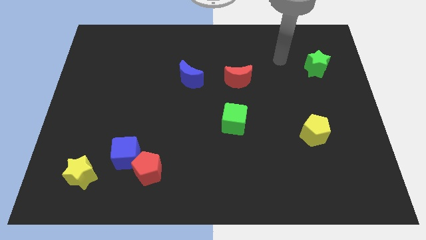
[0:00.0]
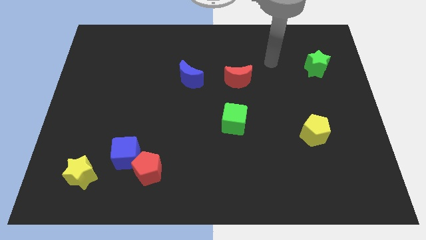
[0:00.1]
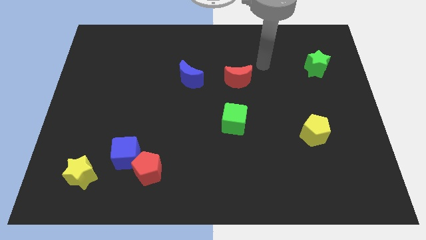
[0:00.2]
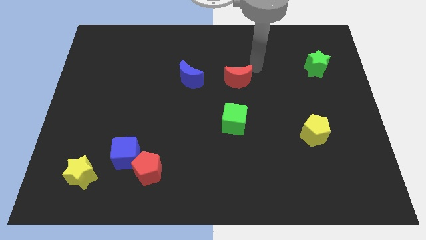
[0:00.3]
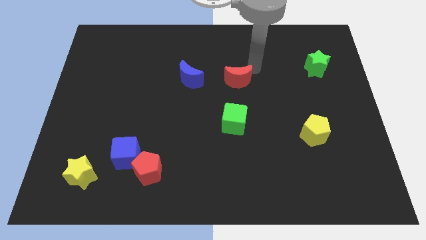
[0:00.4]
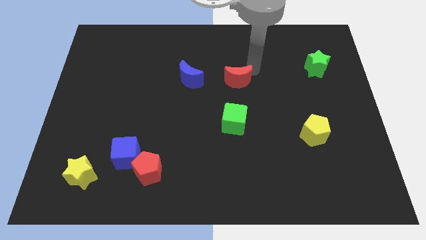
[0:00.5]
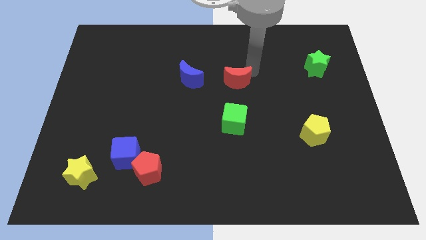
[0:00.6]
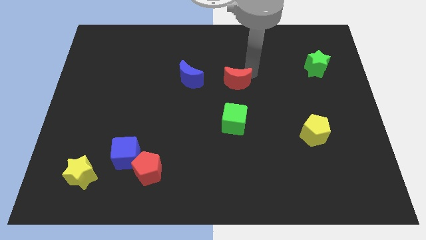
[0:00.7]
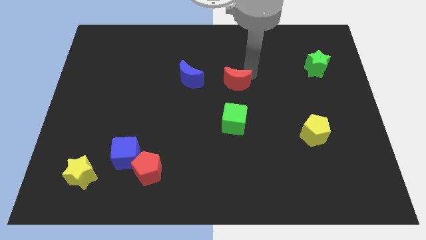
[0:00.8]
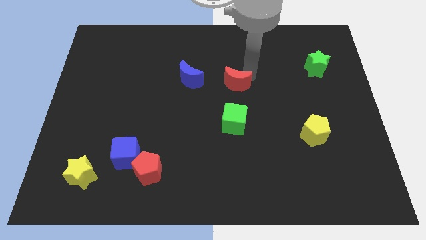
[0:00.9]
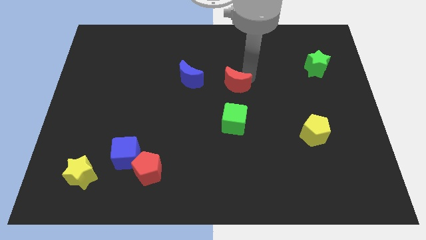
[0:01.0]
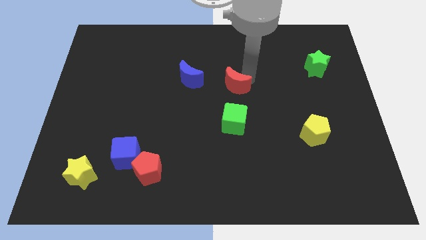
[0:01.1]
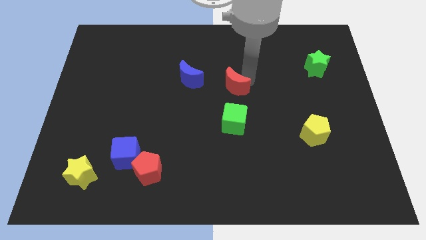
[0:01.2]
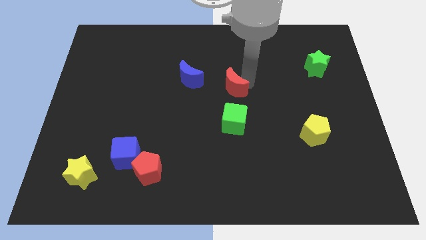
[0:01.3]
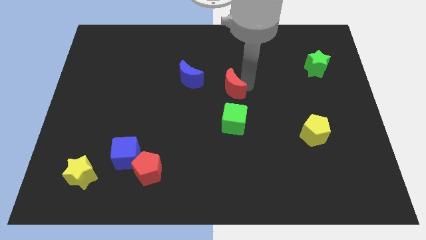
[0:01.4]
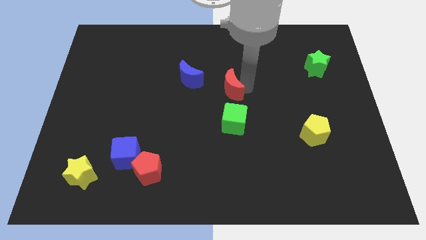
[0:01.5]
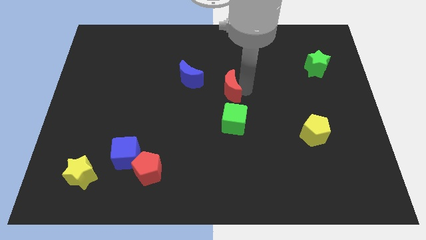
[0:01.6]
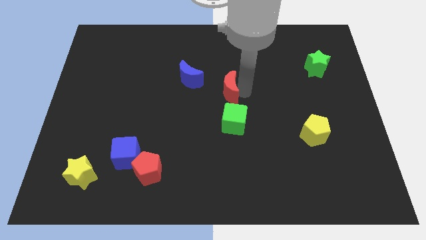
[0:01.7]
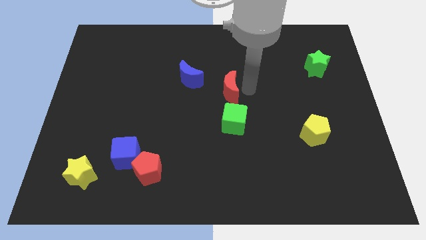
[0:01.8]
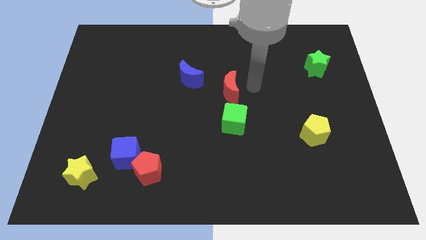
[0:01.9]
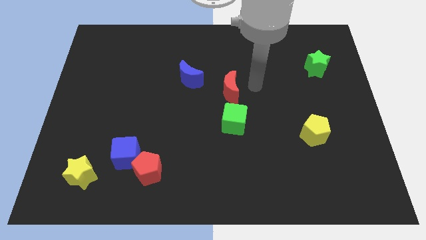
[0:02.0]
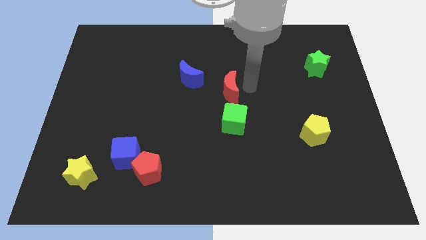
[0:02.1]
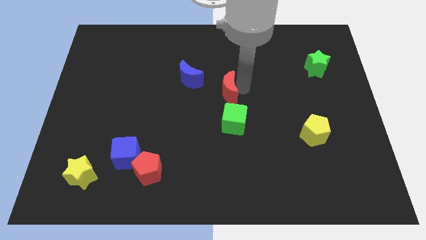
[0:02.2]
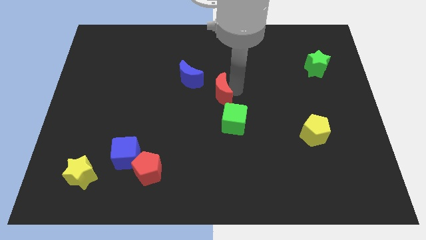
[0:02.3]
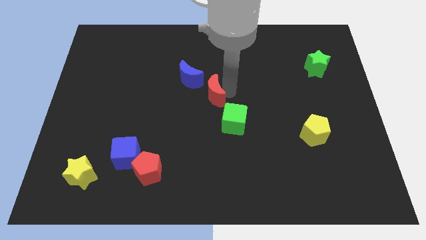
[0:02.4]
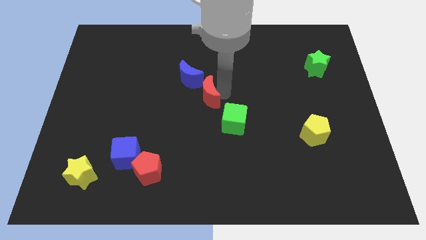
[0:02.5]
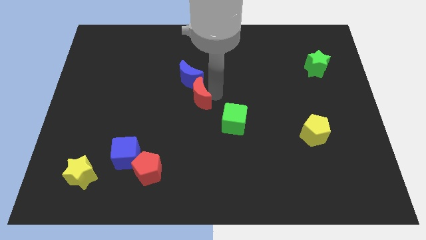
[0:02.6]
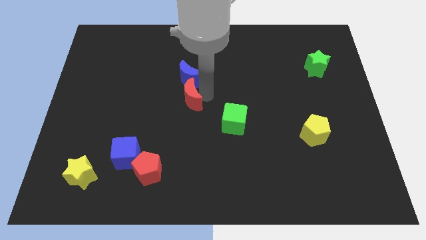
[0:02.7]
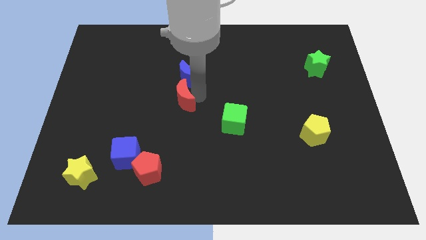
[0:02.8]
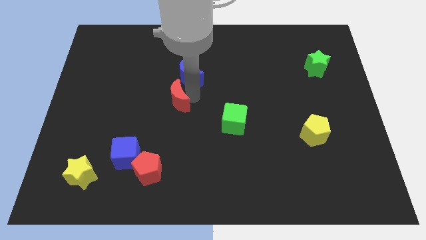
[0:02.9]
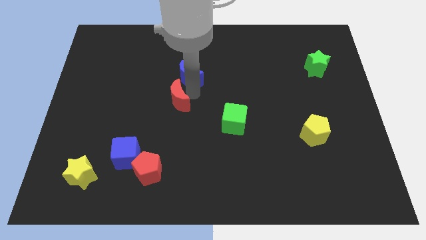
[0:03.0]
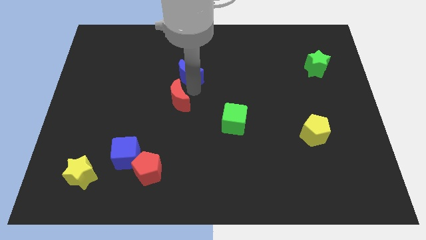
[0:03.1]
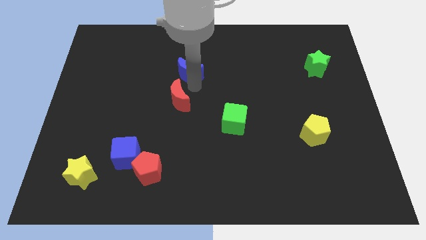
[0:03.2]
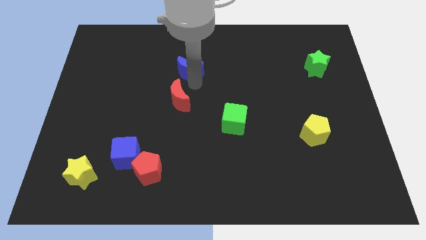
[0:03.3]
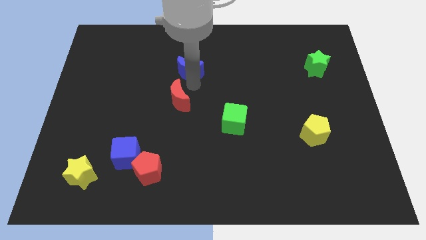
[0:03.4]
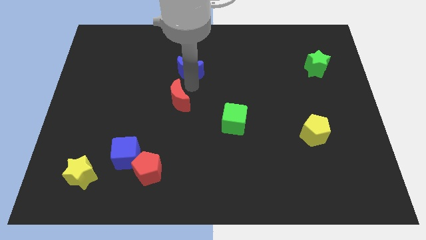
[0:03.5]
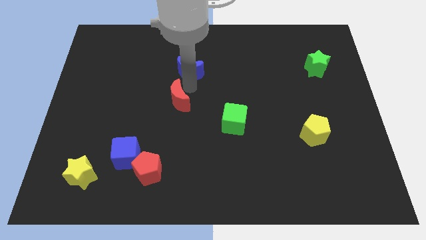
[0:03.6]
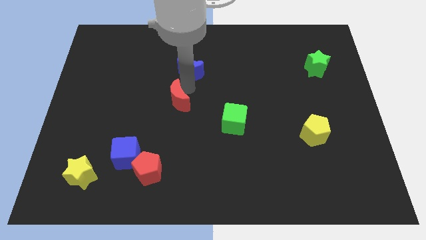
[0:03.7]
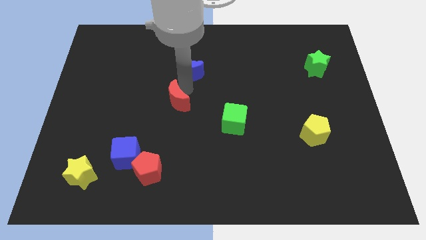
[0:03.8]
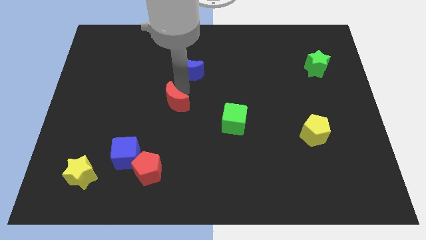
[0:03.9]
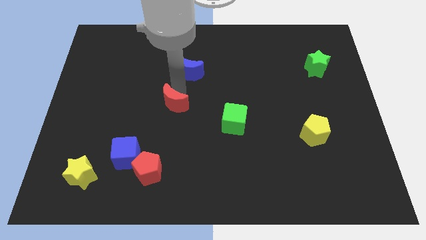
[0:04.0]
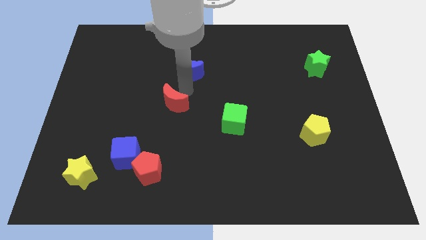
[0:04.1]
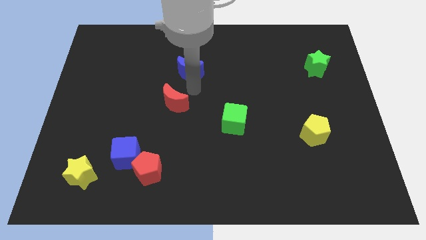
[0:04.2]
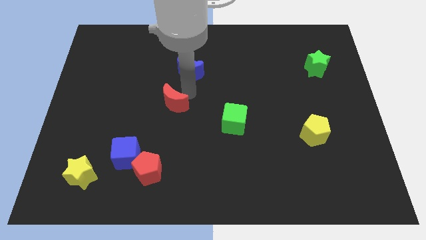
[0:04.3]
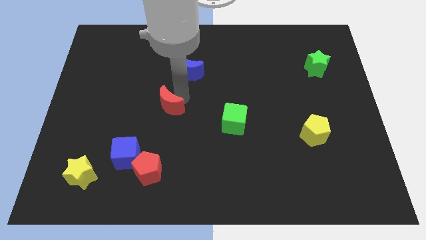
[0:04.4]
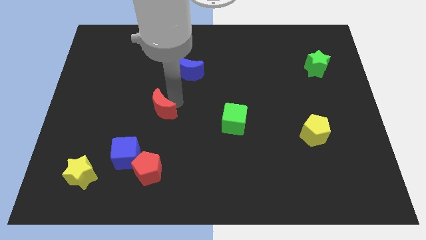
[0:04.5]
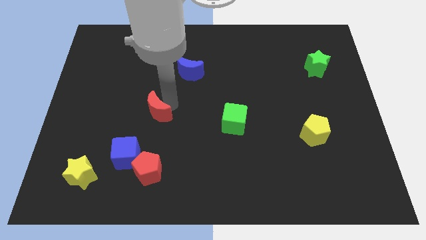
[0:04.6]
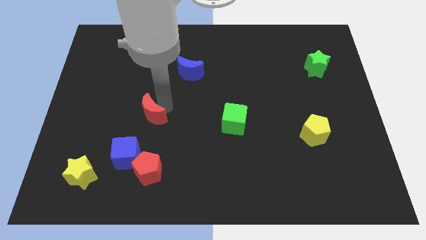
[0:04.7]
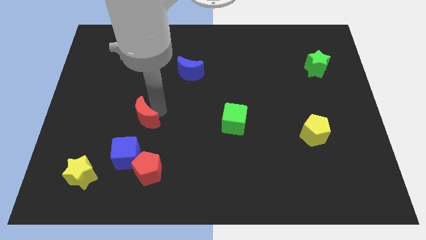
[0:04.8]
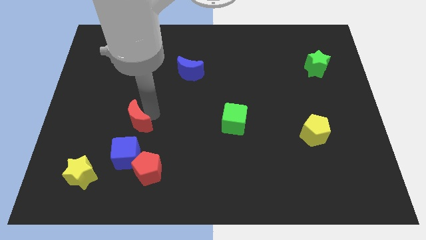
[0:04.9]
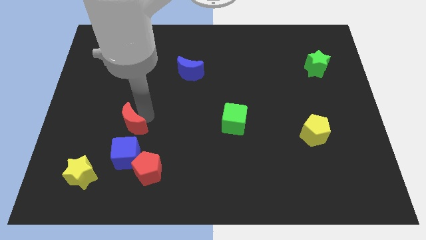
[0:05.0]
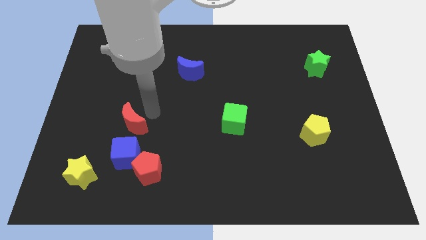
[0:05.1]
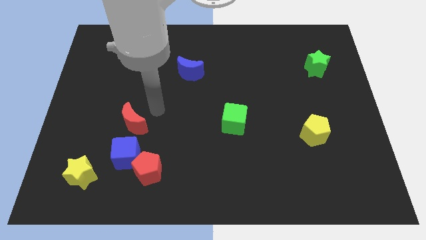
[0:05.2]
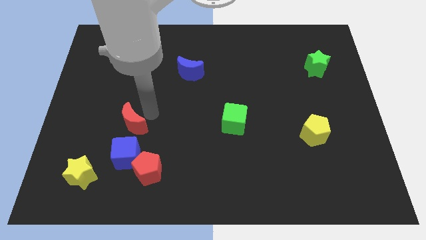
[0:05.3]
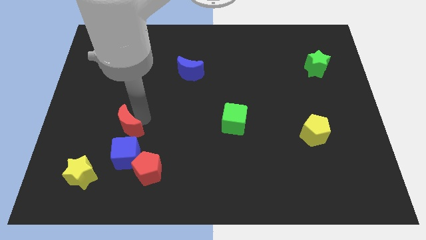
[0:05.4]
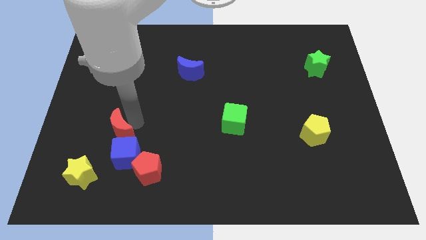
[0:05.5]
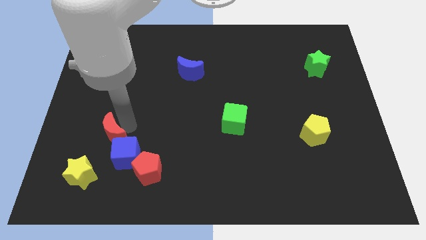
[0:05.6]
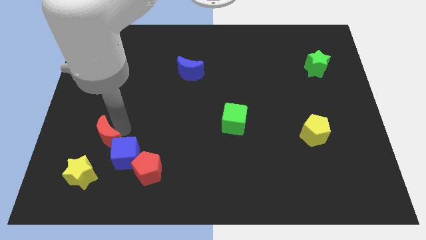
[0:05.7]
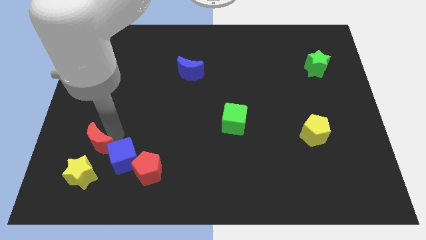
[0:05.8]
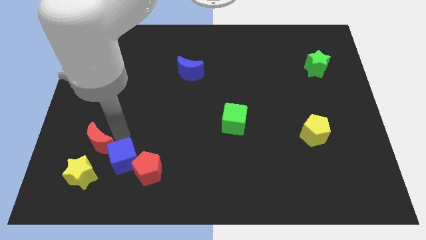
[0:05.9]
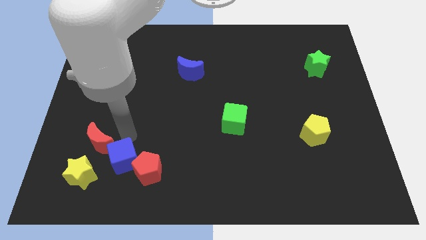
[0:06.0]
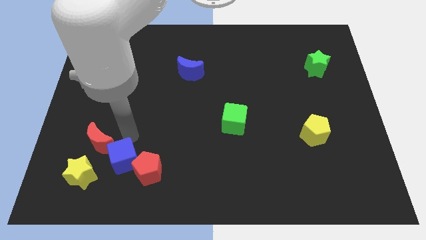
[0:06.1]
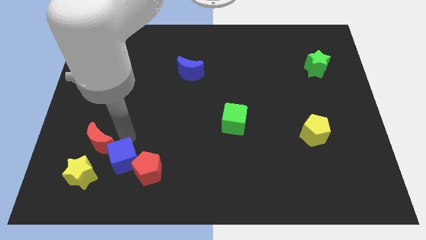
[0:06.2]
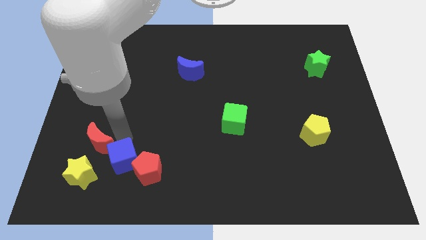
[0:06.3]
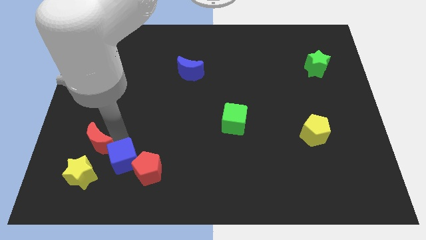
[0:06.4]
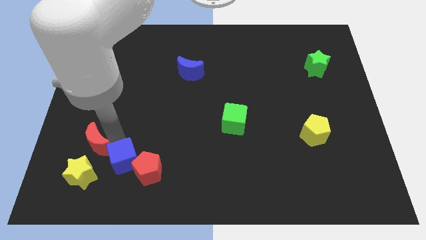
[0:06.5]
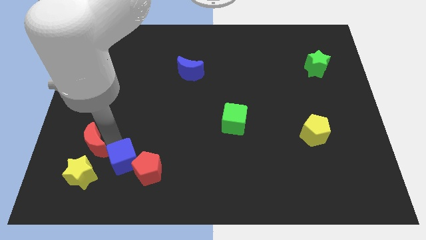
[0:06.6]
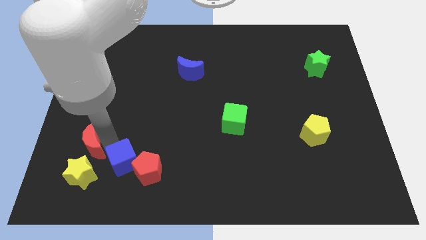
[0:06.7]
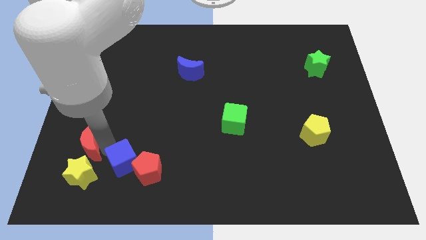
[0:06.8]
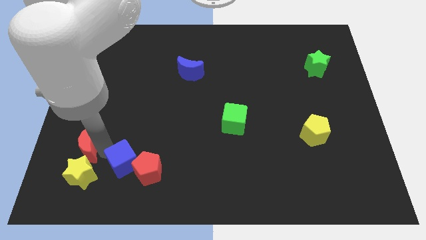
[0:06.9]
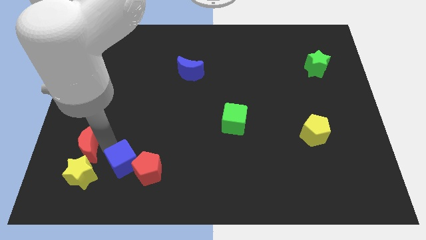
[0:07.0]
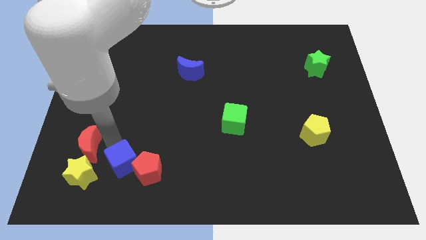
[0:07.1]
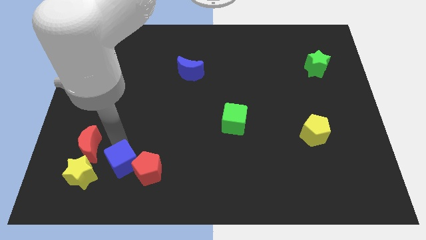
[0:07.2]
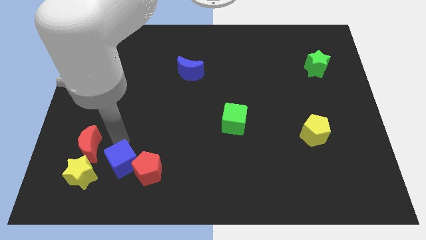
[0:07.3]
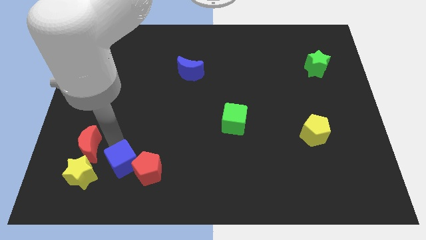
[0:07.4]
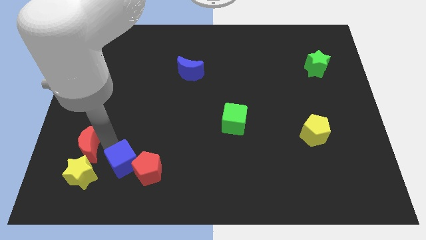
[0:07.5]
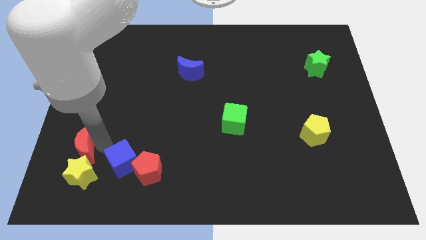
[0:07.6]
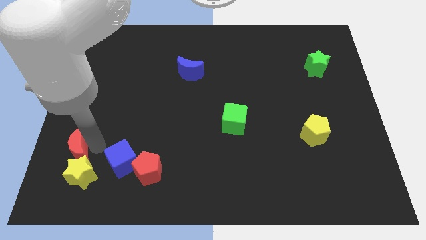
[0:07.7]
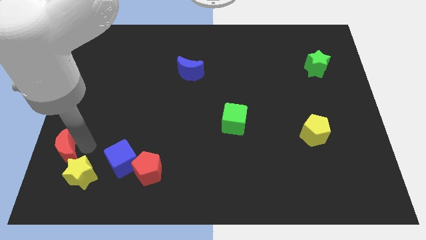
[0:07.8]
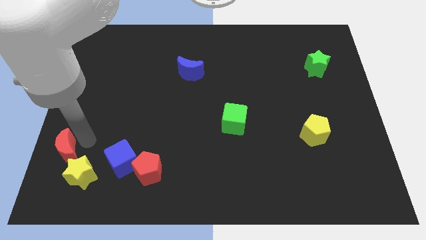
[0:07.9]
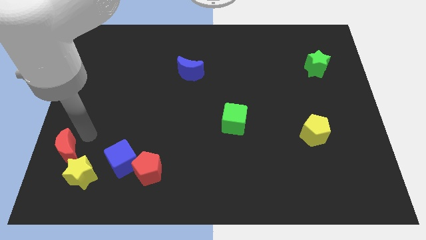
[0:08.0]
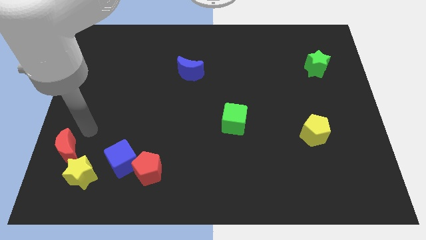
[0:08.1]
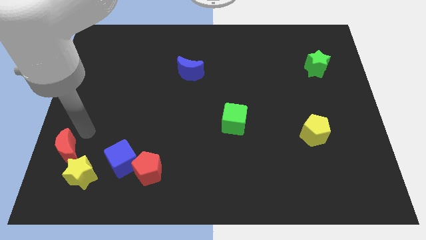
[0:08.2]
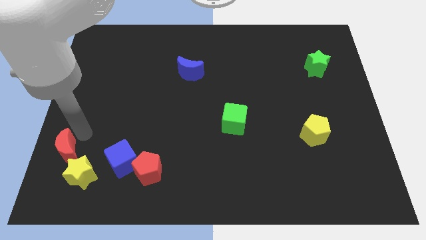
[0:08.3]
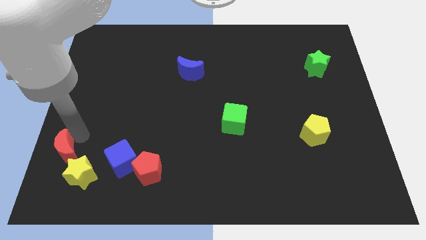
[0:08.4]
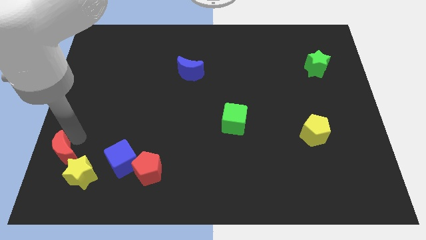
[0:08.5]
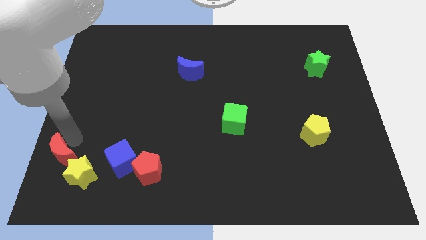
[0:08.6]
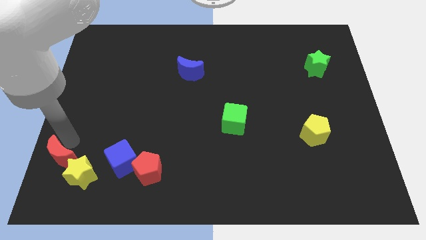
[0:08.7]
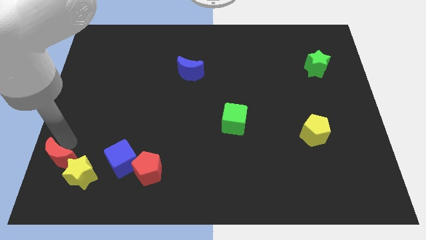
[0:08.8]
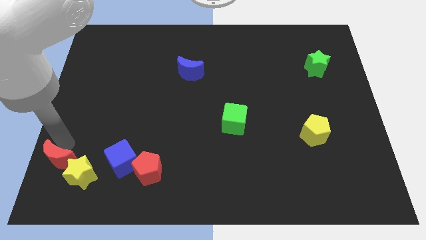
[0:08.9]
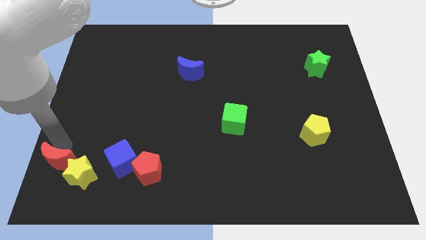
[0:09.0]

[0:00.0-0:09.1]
move the red moon to the bottom left corner
